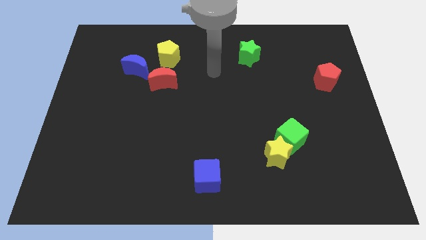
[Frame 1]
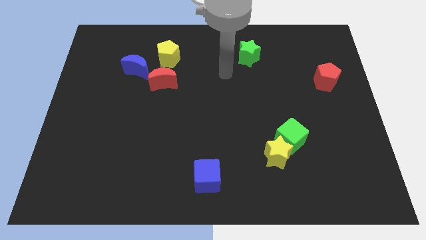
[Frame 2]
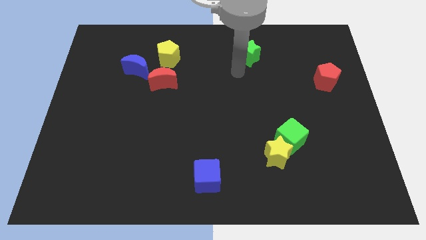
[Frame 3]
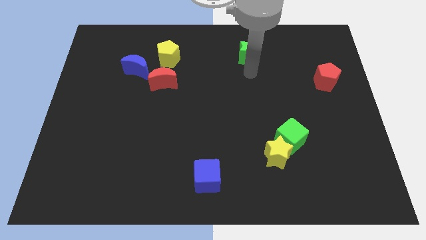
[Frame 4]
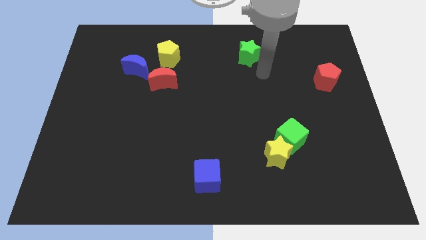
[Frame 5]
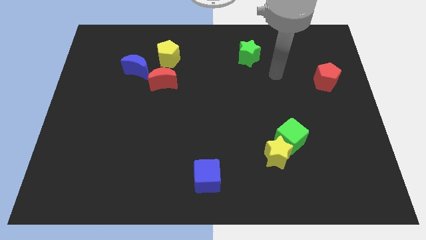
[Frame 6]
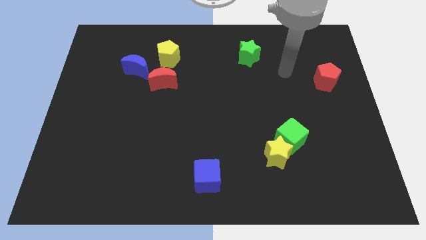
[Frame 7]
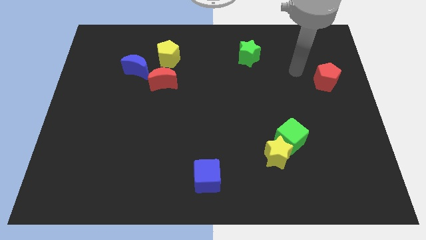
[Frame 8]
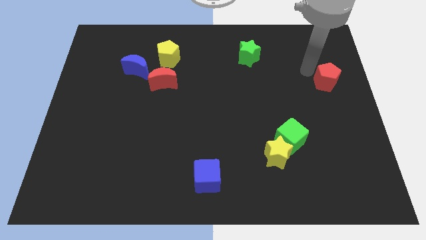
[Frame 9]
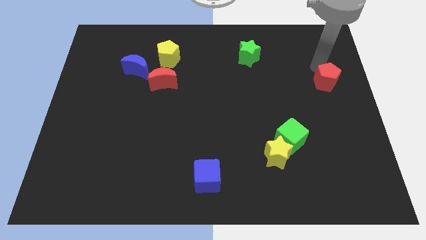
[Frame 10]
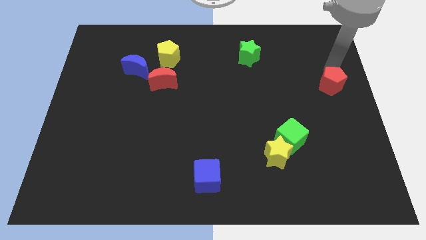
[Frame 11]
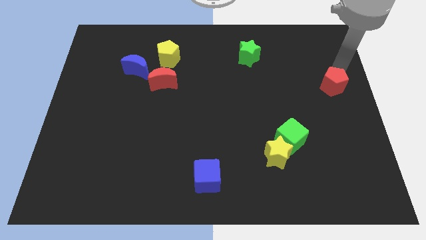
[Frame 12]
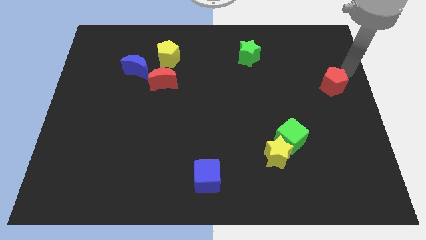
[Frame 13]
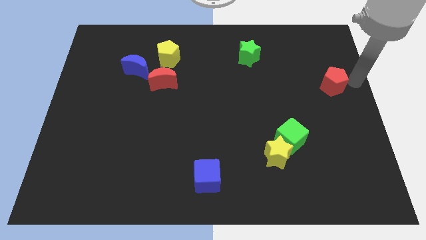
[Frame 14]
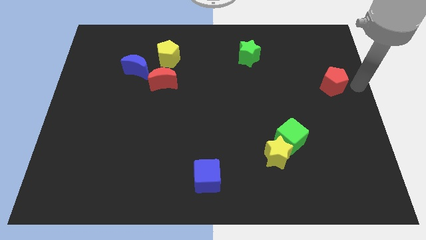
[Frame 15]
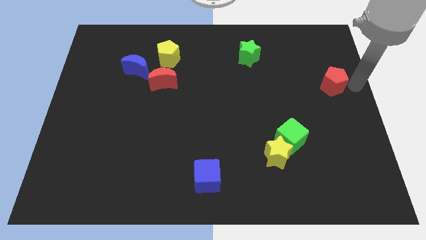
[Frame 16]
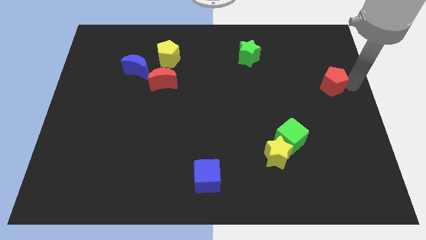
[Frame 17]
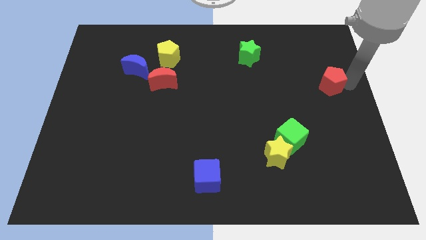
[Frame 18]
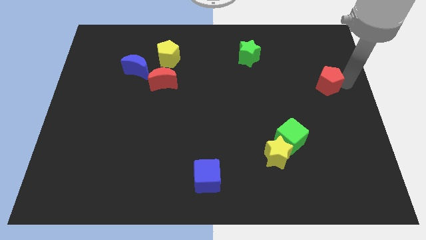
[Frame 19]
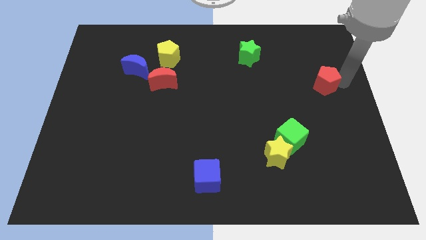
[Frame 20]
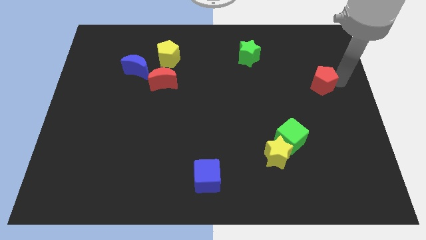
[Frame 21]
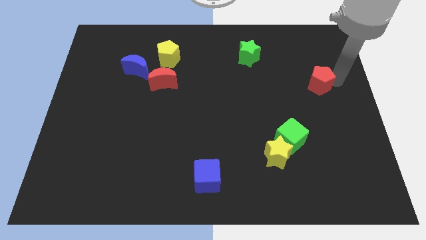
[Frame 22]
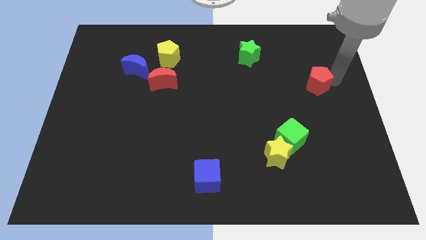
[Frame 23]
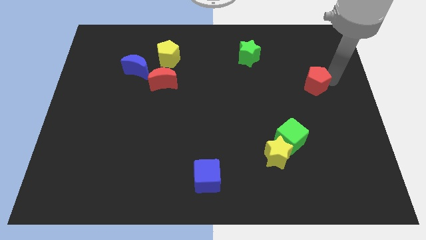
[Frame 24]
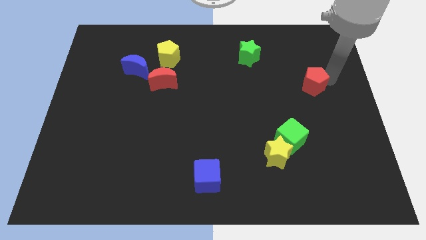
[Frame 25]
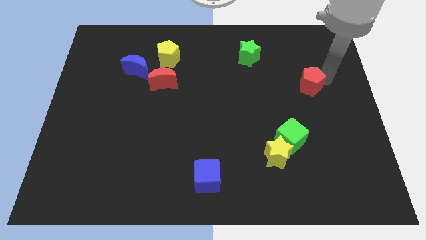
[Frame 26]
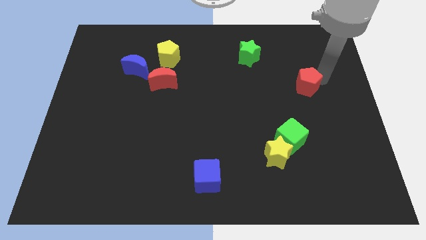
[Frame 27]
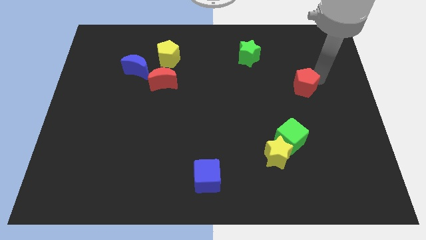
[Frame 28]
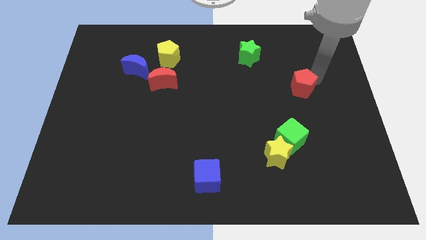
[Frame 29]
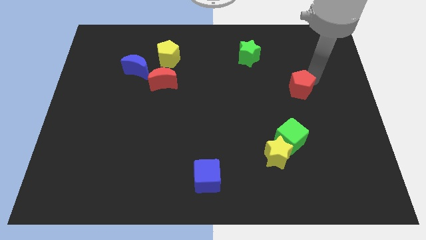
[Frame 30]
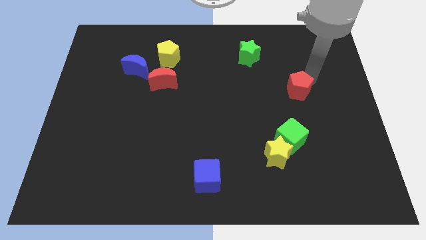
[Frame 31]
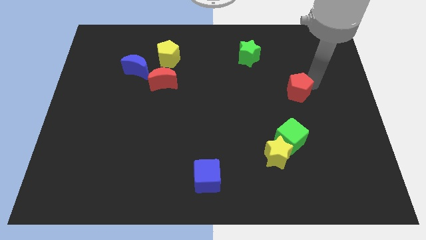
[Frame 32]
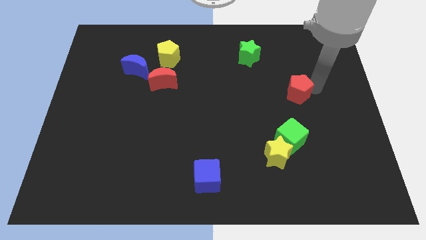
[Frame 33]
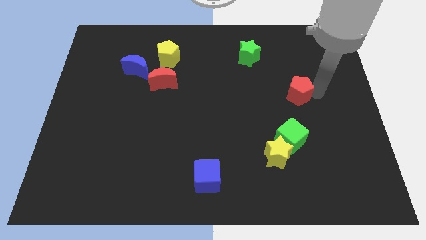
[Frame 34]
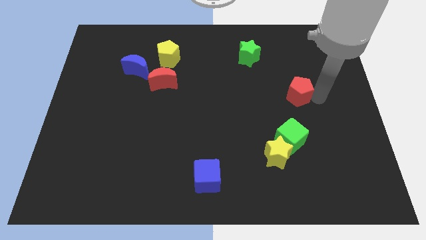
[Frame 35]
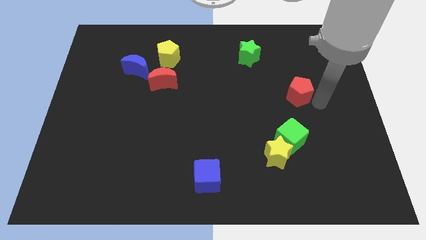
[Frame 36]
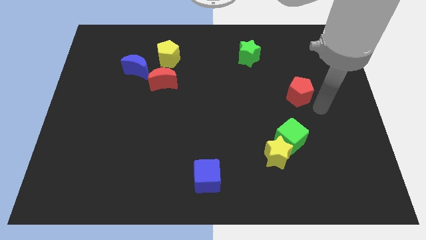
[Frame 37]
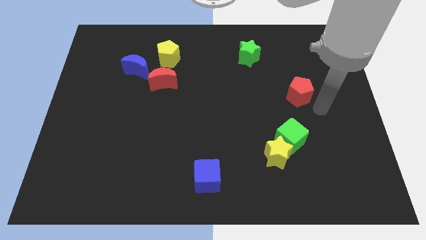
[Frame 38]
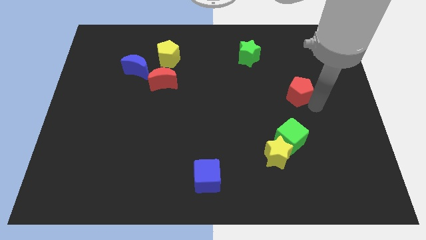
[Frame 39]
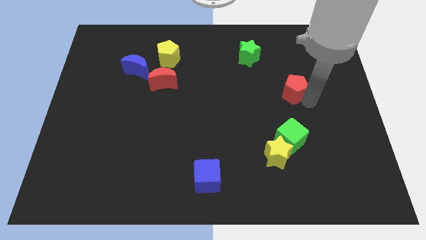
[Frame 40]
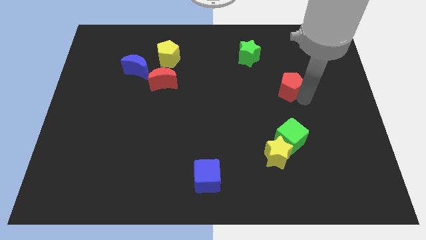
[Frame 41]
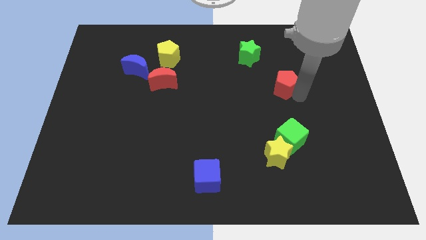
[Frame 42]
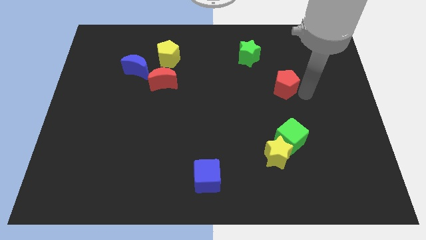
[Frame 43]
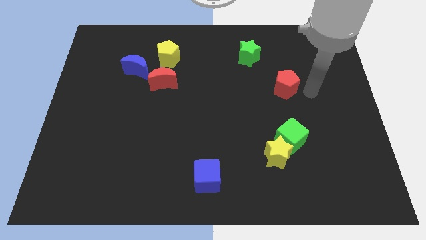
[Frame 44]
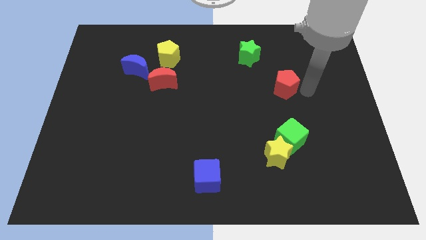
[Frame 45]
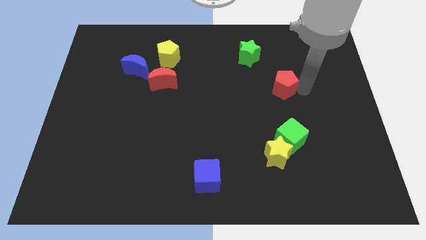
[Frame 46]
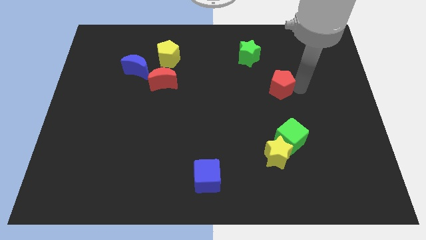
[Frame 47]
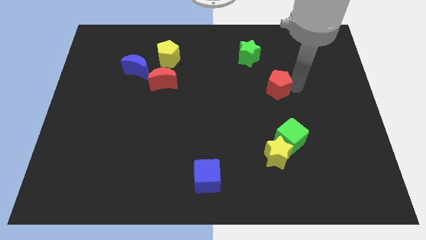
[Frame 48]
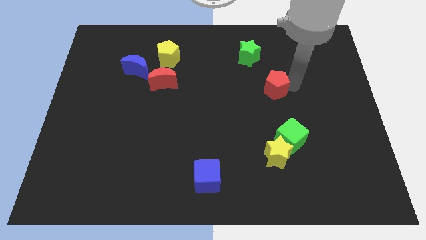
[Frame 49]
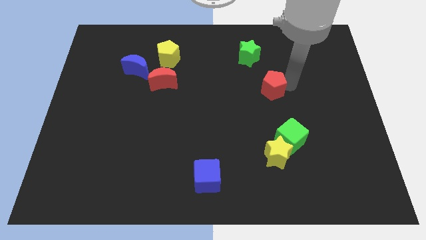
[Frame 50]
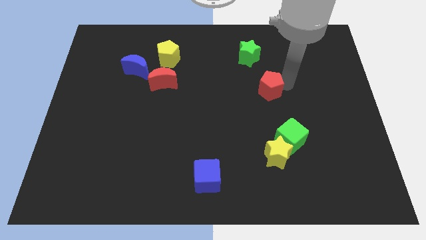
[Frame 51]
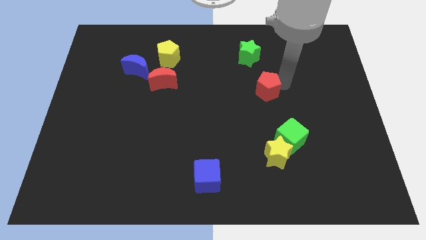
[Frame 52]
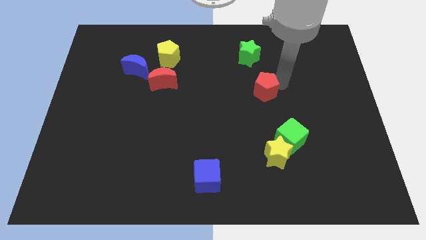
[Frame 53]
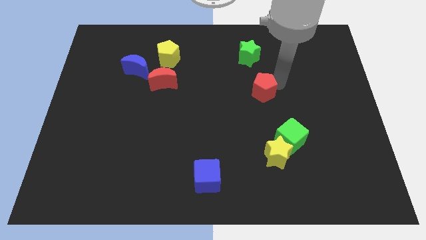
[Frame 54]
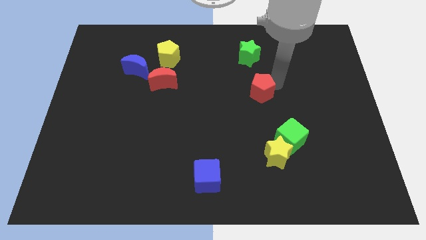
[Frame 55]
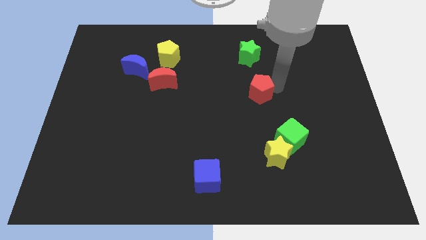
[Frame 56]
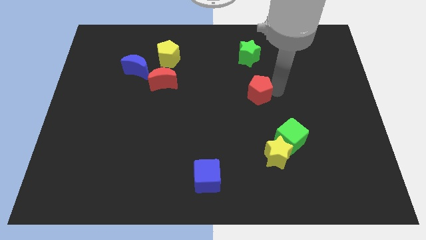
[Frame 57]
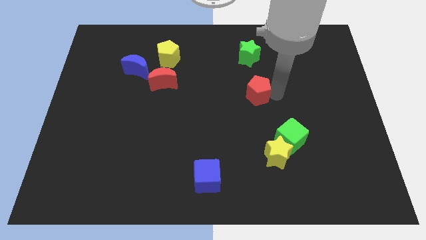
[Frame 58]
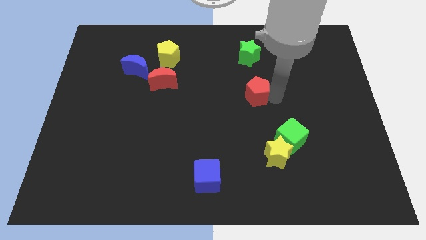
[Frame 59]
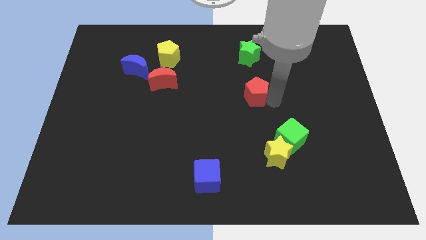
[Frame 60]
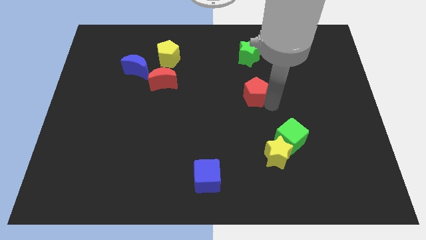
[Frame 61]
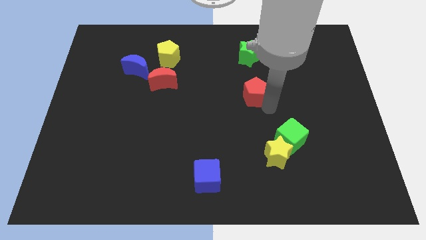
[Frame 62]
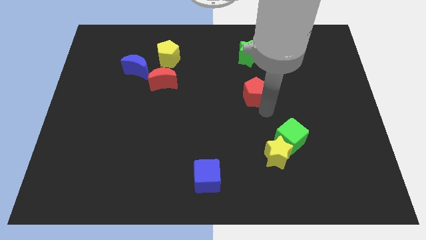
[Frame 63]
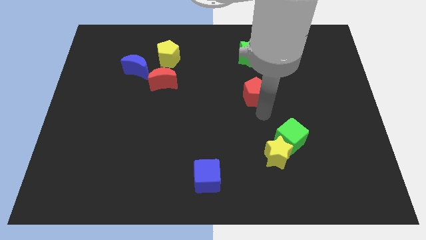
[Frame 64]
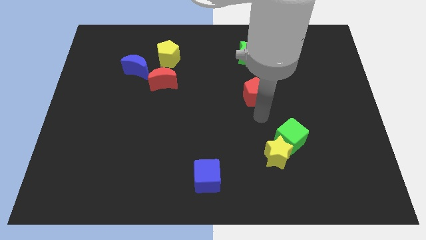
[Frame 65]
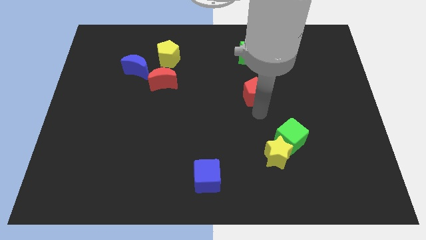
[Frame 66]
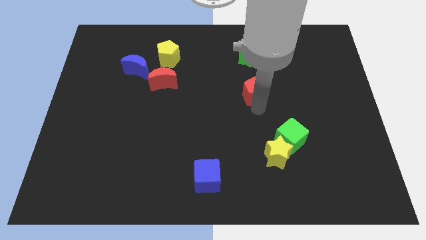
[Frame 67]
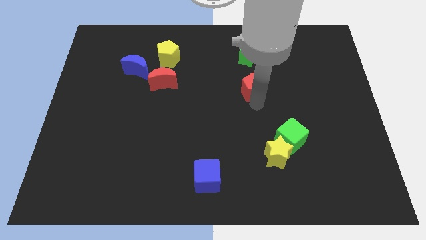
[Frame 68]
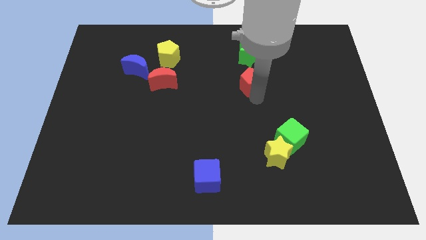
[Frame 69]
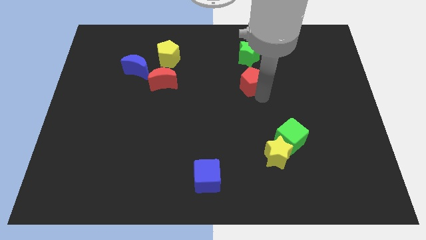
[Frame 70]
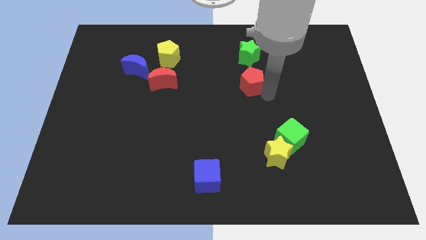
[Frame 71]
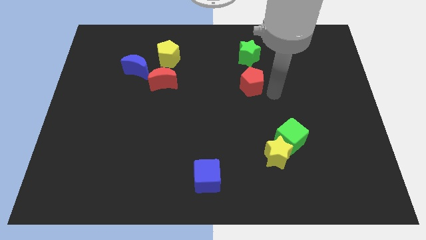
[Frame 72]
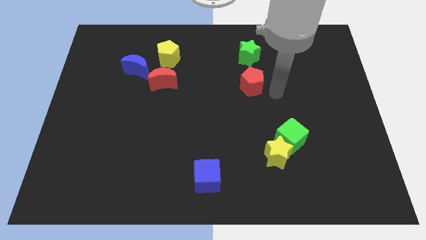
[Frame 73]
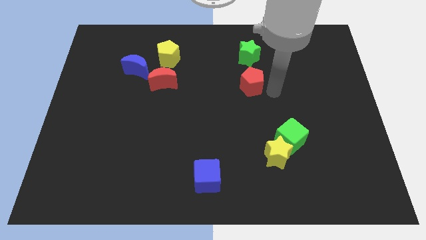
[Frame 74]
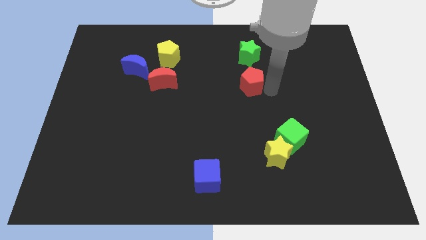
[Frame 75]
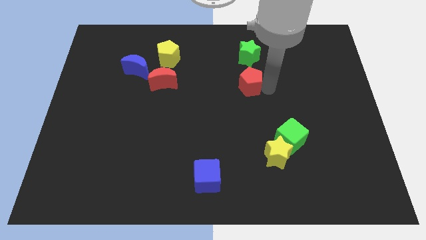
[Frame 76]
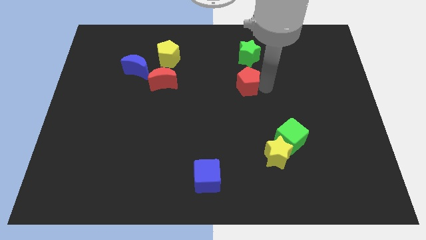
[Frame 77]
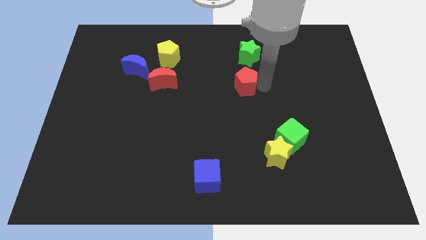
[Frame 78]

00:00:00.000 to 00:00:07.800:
slide the red pentagon left

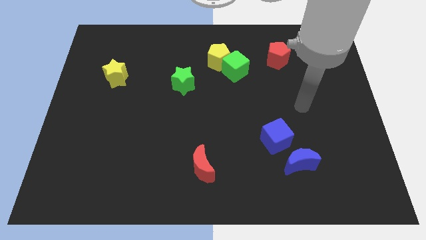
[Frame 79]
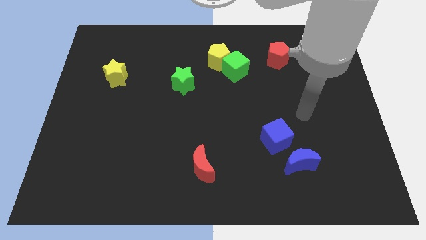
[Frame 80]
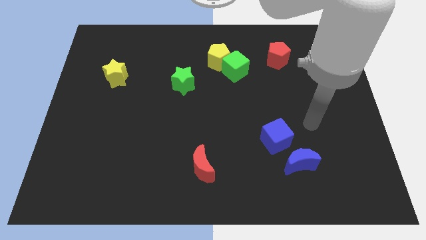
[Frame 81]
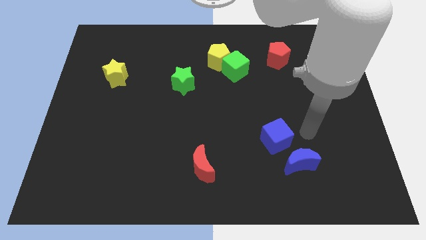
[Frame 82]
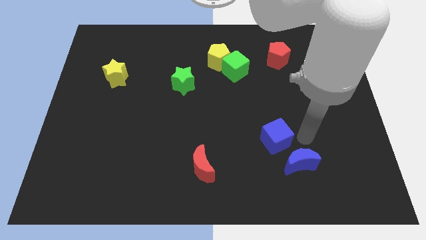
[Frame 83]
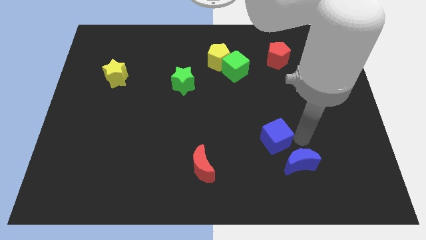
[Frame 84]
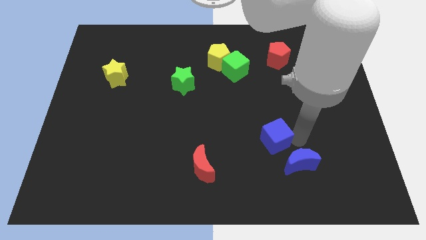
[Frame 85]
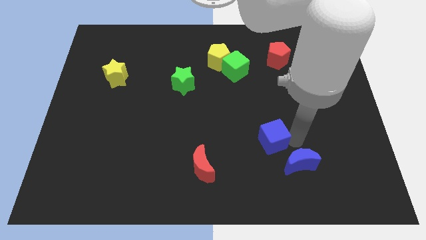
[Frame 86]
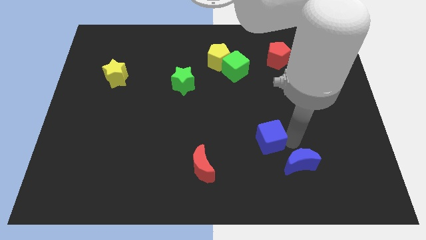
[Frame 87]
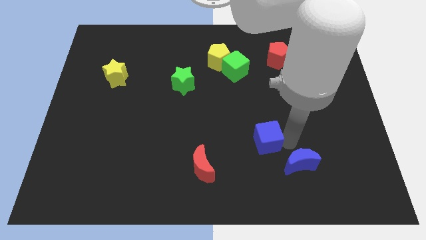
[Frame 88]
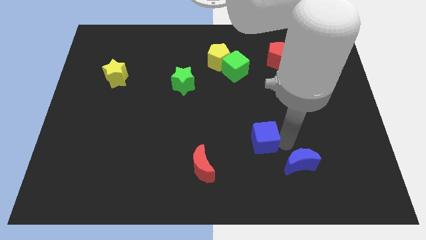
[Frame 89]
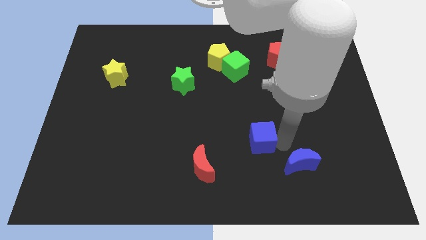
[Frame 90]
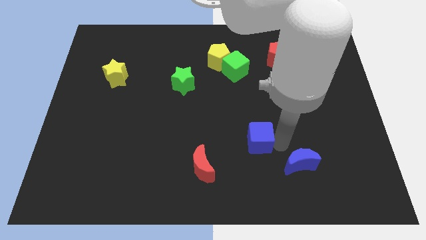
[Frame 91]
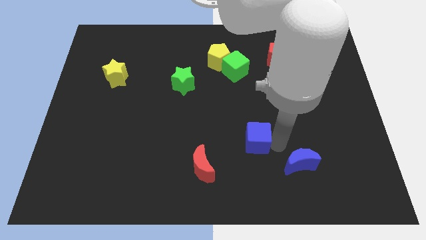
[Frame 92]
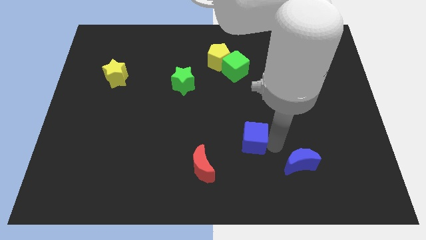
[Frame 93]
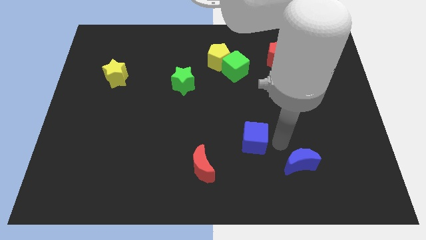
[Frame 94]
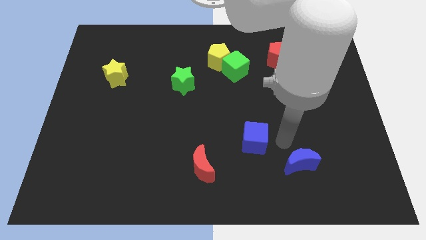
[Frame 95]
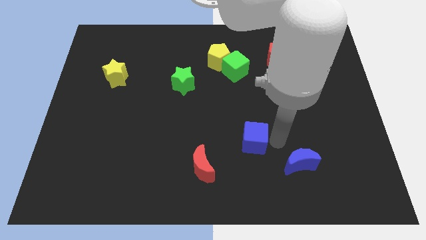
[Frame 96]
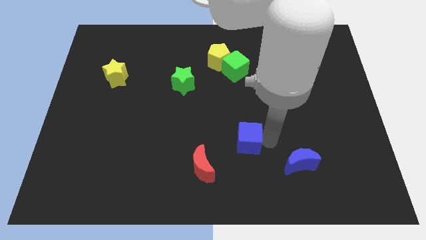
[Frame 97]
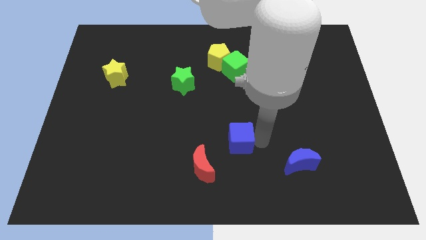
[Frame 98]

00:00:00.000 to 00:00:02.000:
slightly push the blue cube to the left
